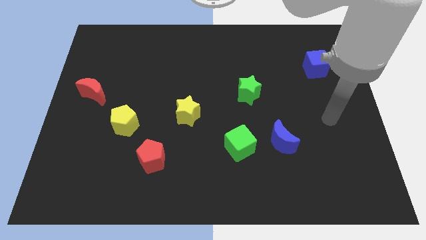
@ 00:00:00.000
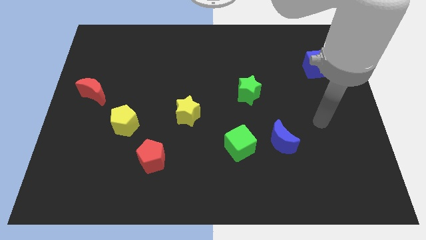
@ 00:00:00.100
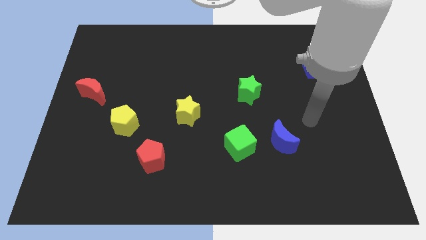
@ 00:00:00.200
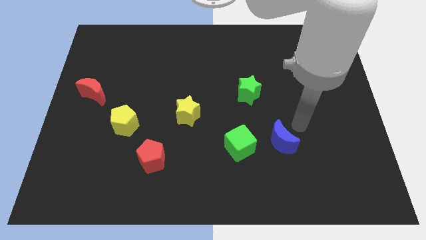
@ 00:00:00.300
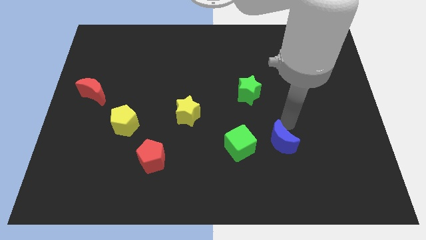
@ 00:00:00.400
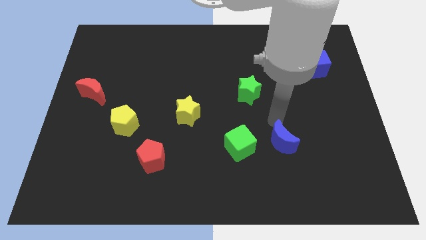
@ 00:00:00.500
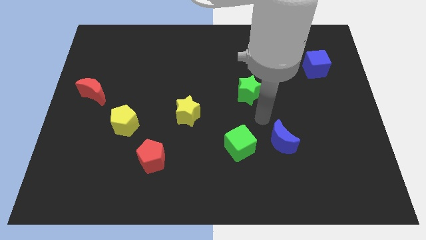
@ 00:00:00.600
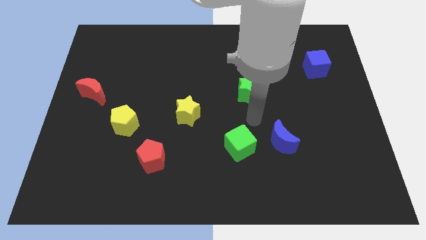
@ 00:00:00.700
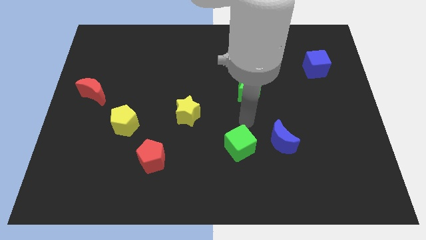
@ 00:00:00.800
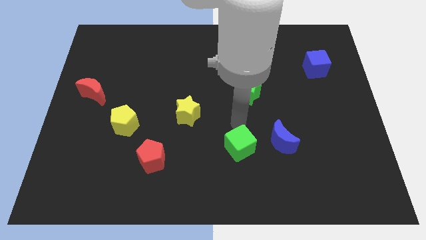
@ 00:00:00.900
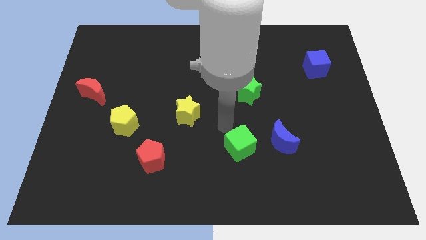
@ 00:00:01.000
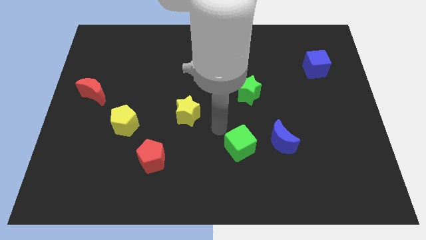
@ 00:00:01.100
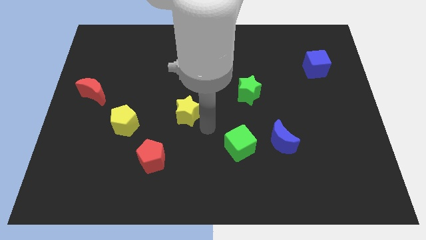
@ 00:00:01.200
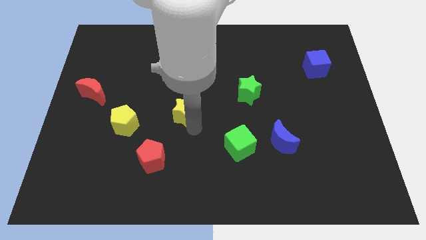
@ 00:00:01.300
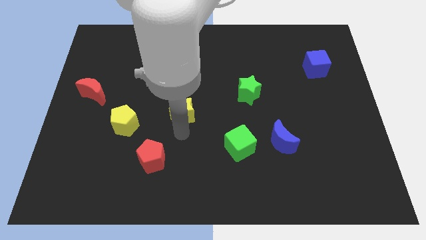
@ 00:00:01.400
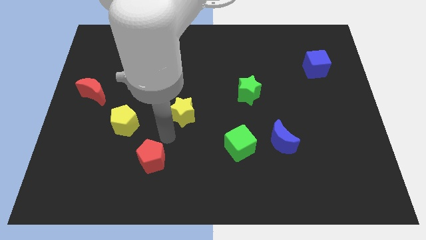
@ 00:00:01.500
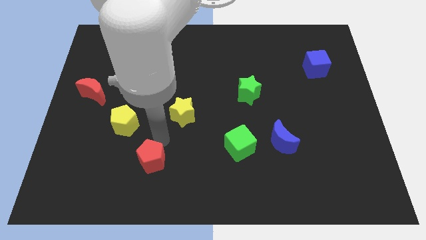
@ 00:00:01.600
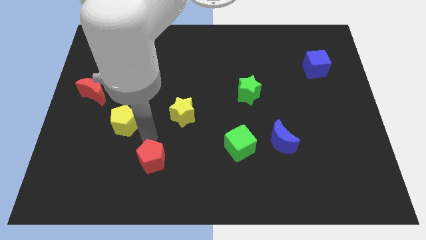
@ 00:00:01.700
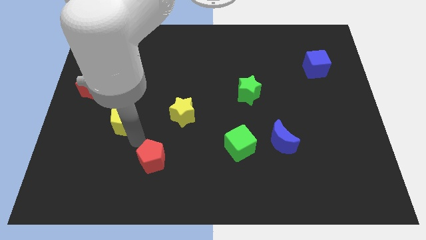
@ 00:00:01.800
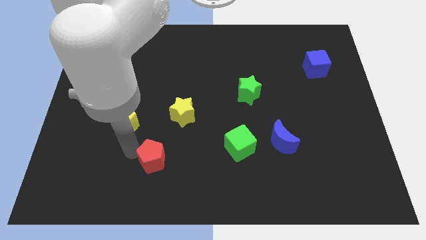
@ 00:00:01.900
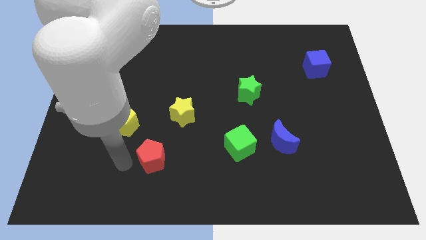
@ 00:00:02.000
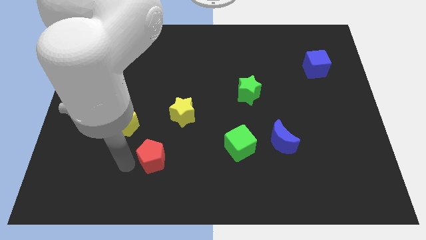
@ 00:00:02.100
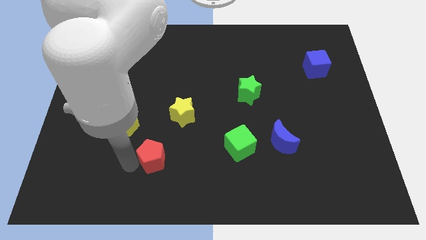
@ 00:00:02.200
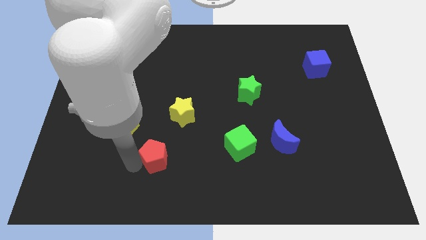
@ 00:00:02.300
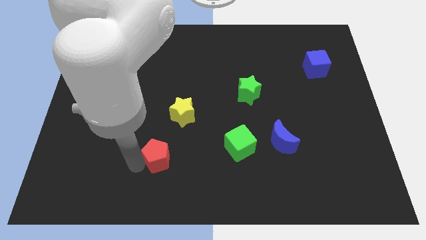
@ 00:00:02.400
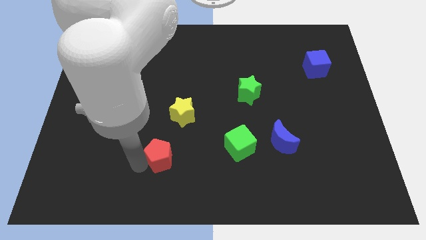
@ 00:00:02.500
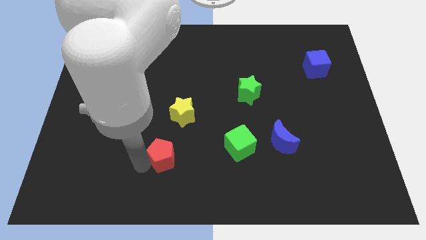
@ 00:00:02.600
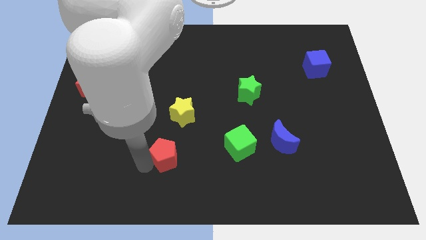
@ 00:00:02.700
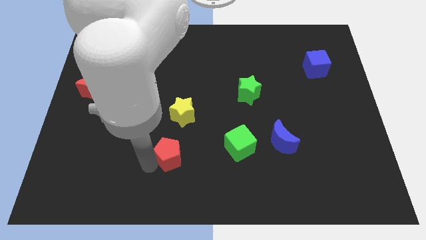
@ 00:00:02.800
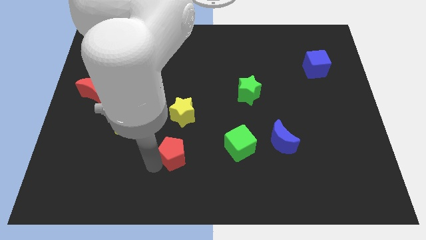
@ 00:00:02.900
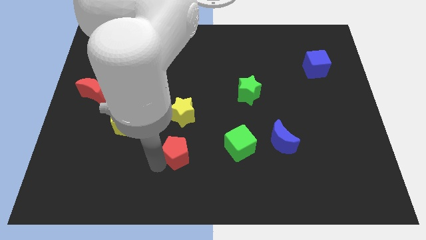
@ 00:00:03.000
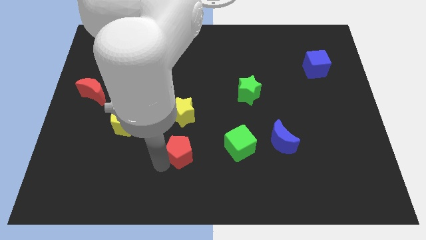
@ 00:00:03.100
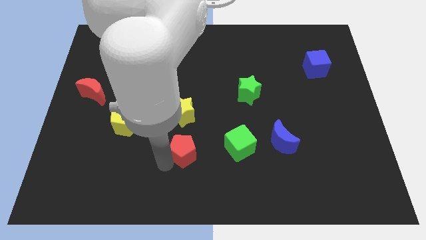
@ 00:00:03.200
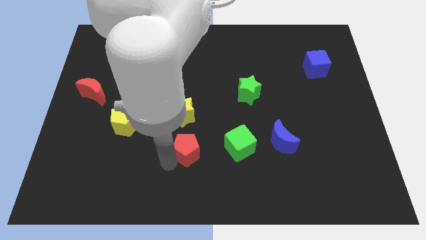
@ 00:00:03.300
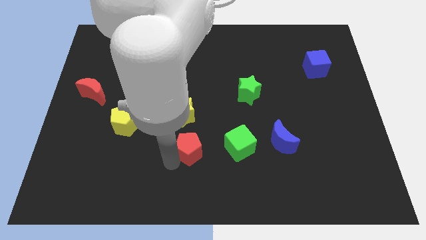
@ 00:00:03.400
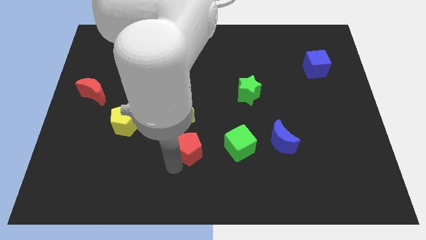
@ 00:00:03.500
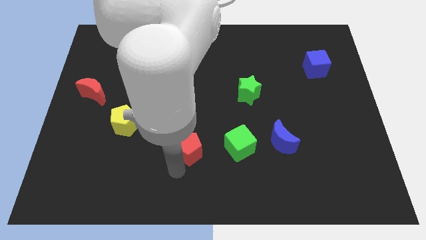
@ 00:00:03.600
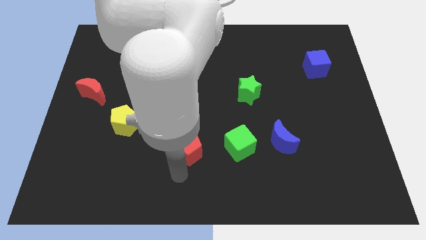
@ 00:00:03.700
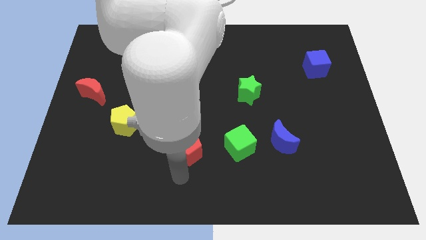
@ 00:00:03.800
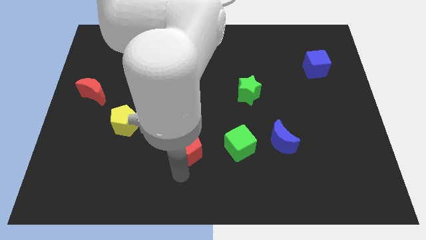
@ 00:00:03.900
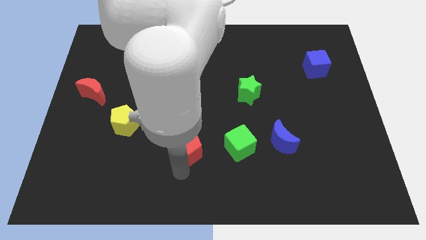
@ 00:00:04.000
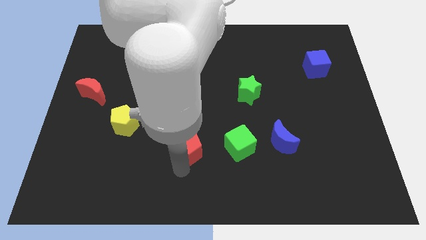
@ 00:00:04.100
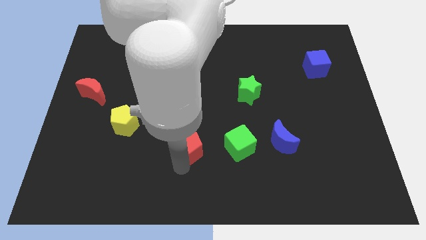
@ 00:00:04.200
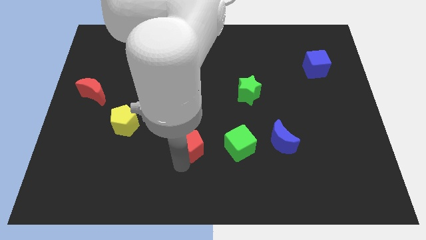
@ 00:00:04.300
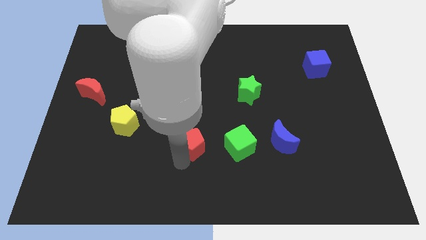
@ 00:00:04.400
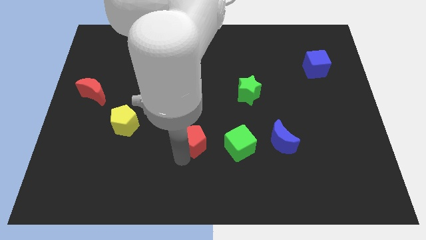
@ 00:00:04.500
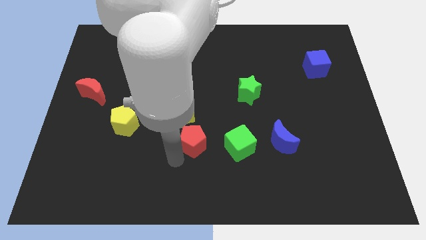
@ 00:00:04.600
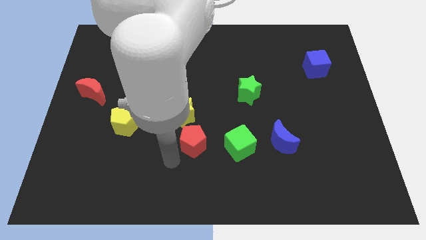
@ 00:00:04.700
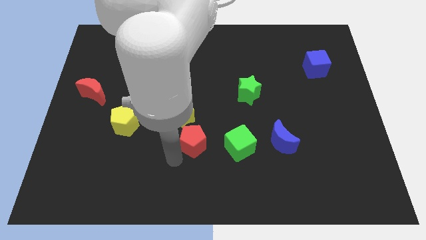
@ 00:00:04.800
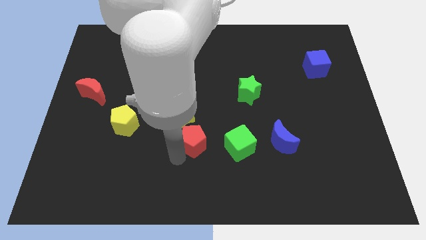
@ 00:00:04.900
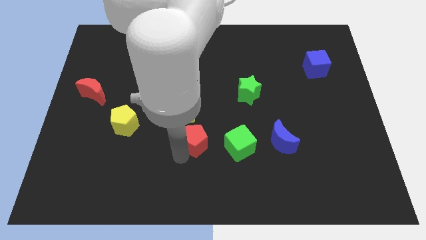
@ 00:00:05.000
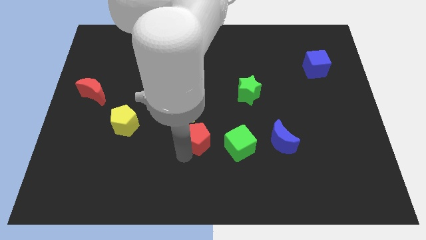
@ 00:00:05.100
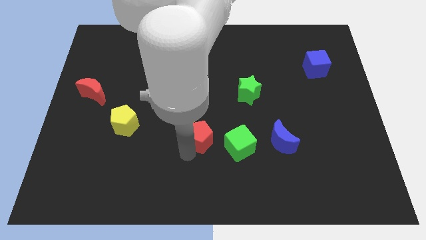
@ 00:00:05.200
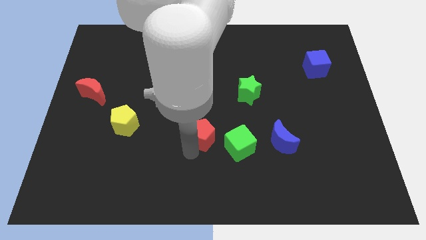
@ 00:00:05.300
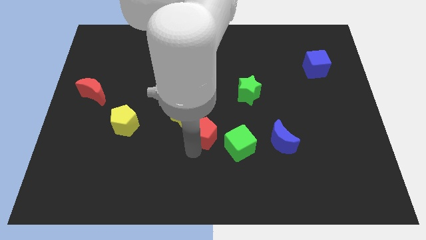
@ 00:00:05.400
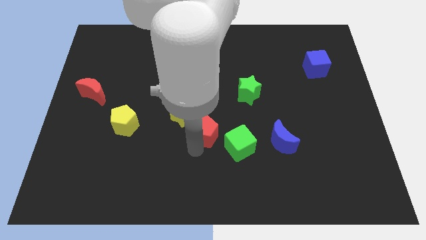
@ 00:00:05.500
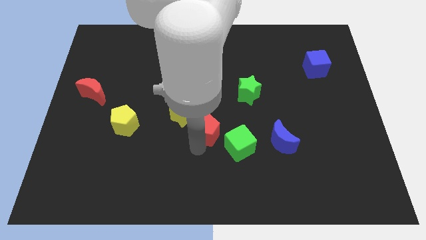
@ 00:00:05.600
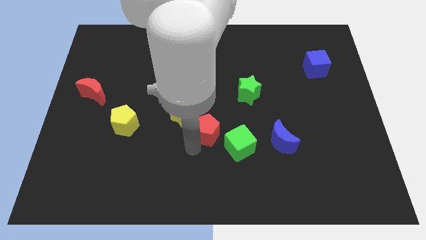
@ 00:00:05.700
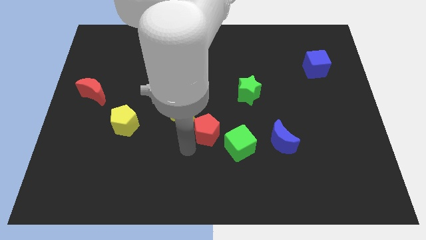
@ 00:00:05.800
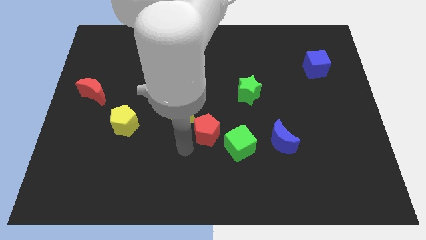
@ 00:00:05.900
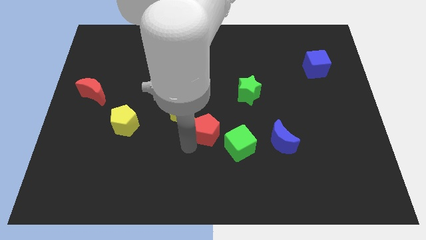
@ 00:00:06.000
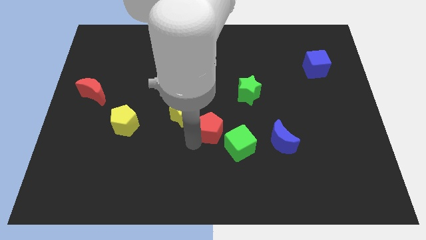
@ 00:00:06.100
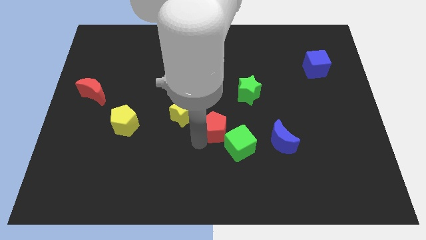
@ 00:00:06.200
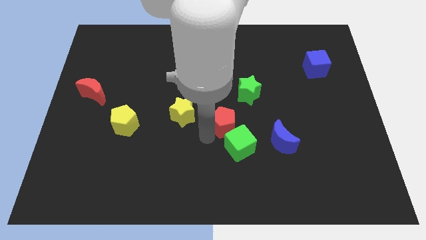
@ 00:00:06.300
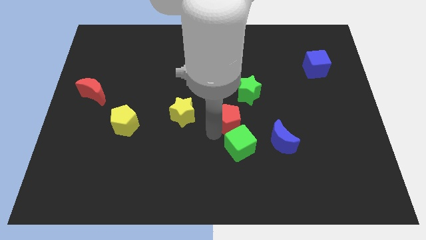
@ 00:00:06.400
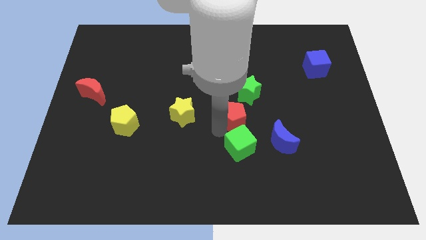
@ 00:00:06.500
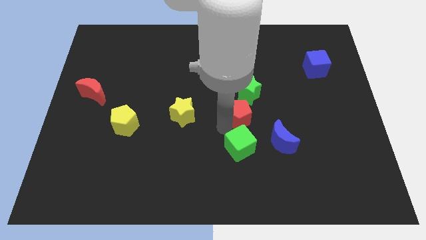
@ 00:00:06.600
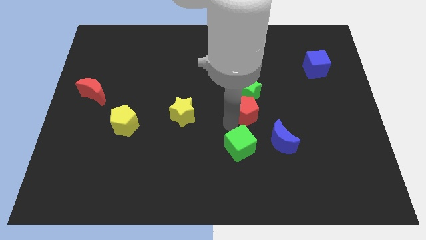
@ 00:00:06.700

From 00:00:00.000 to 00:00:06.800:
put the red pentagon next to the green star

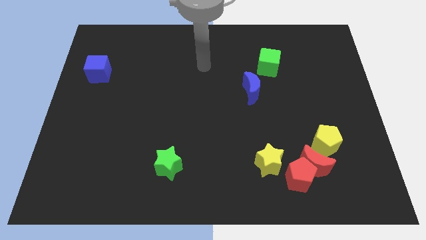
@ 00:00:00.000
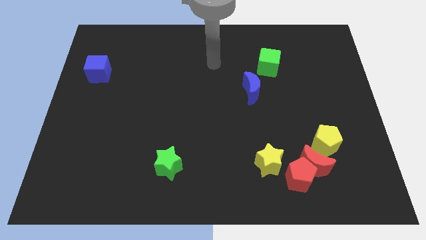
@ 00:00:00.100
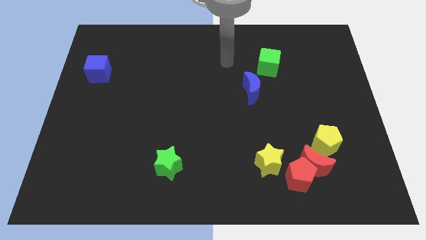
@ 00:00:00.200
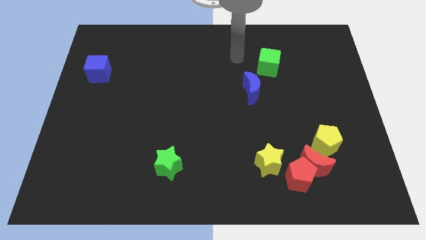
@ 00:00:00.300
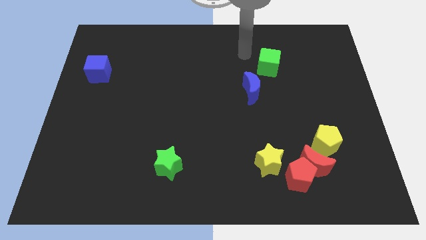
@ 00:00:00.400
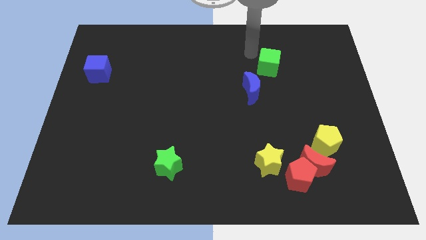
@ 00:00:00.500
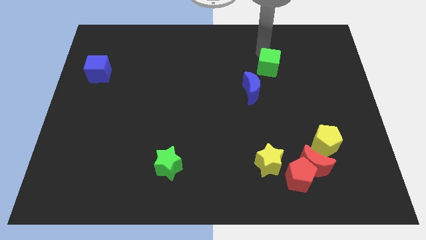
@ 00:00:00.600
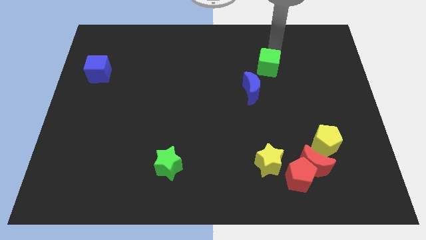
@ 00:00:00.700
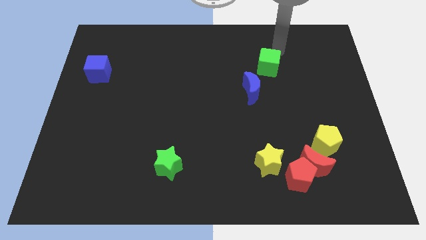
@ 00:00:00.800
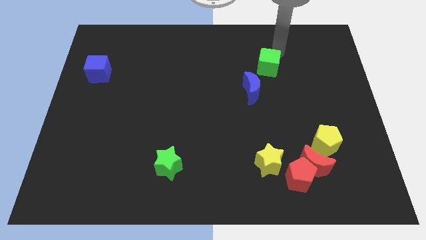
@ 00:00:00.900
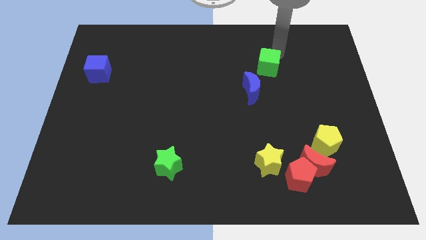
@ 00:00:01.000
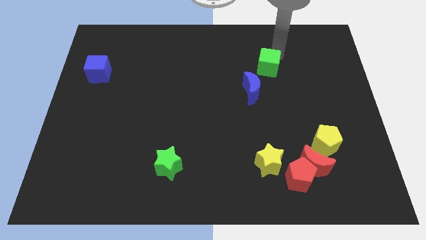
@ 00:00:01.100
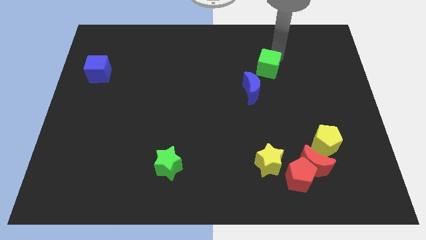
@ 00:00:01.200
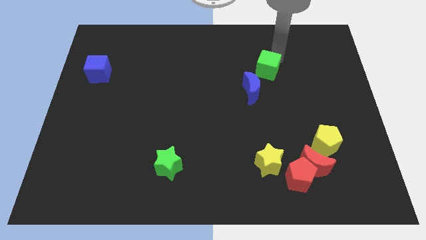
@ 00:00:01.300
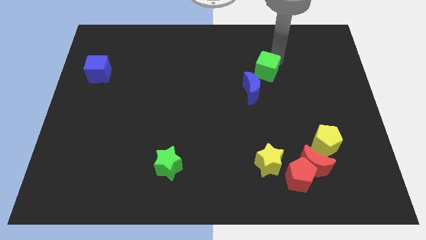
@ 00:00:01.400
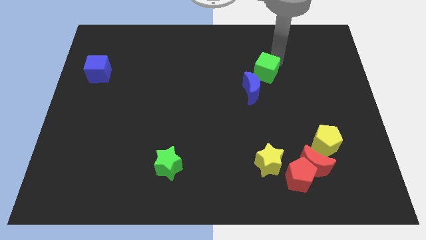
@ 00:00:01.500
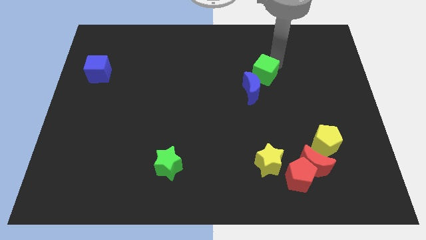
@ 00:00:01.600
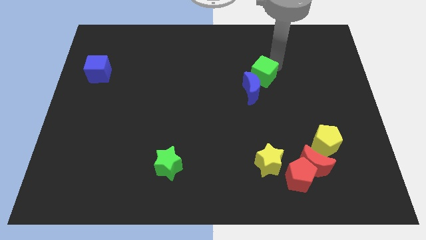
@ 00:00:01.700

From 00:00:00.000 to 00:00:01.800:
move the green cube towards the blue moon
